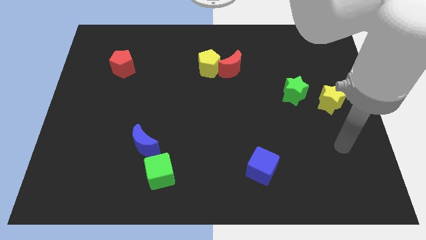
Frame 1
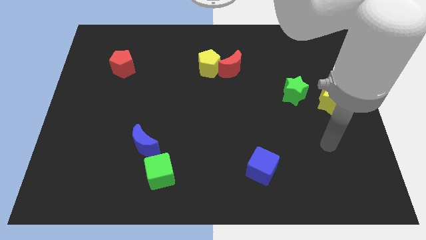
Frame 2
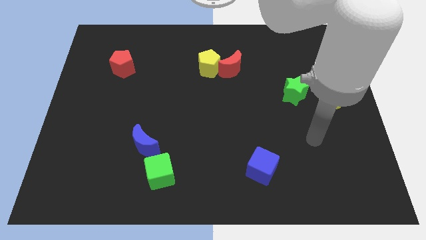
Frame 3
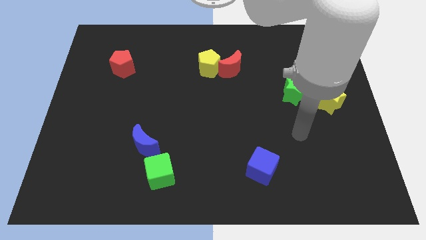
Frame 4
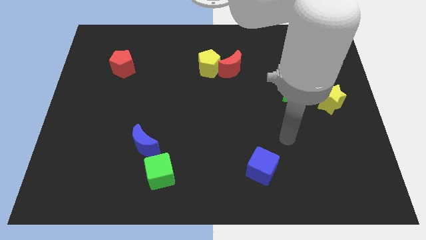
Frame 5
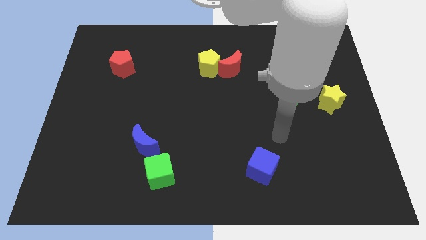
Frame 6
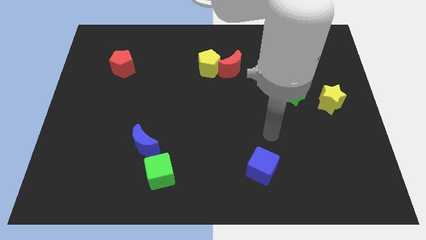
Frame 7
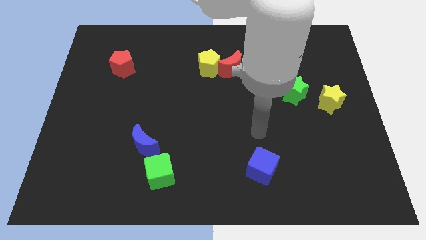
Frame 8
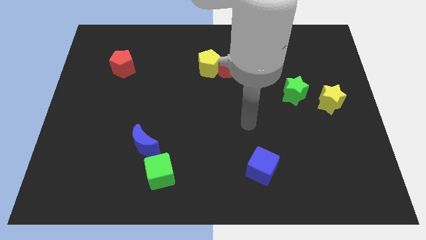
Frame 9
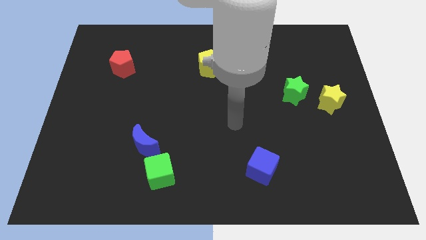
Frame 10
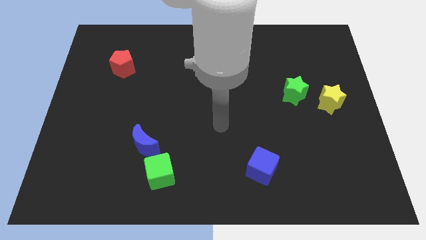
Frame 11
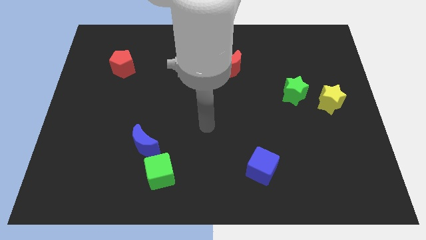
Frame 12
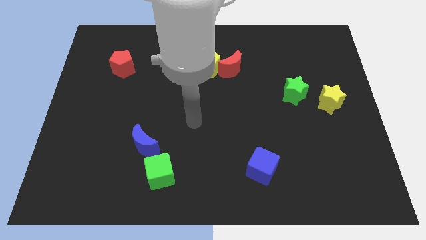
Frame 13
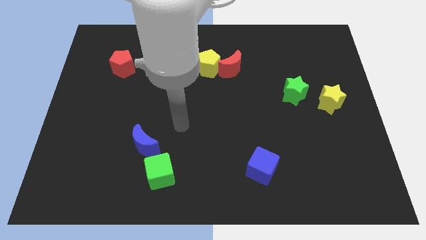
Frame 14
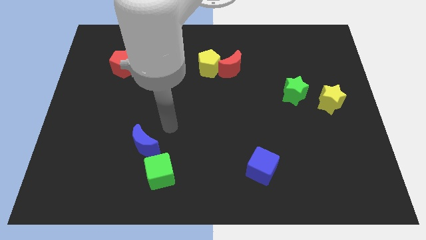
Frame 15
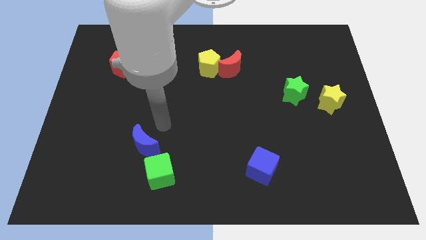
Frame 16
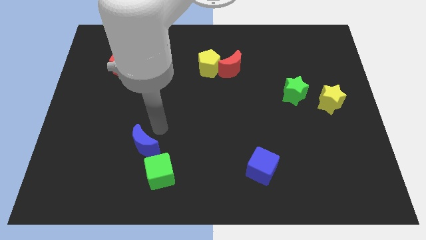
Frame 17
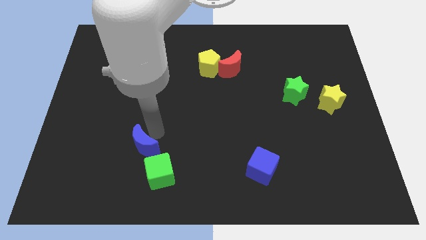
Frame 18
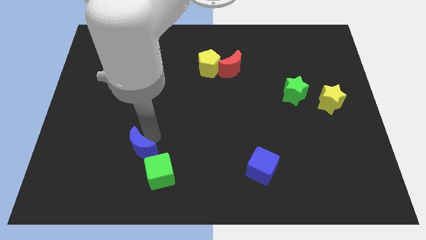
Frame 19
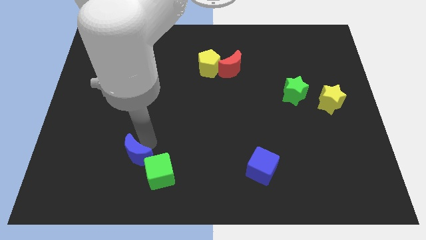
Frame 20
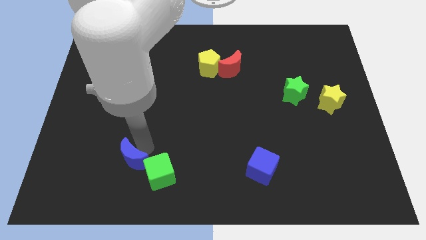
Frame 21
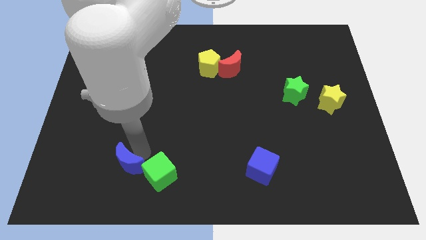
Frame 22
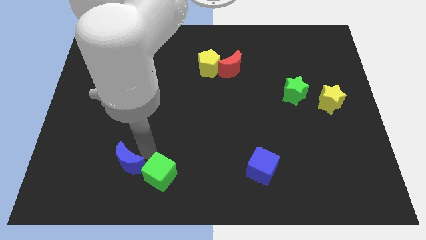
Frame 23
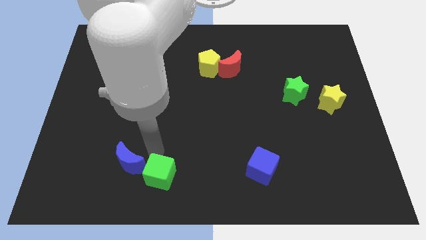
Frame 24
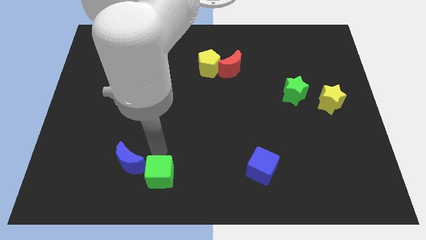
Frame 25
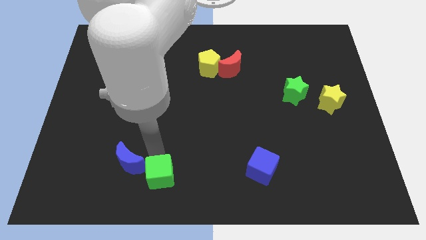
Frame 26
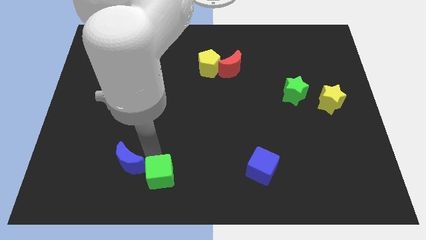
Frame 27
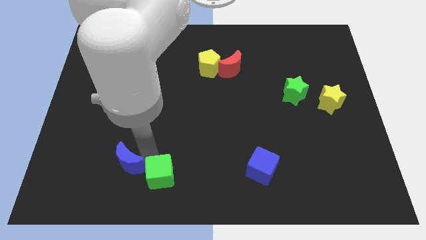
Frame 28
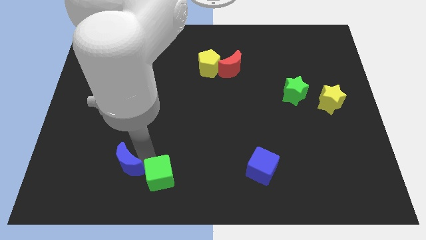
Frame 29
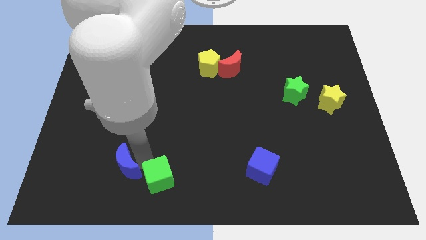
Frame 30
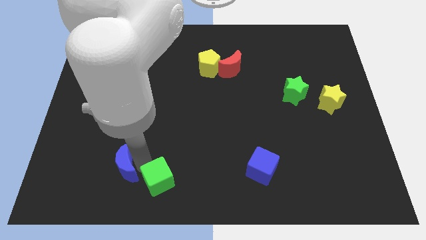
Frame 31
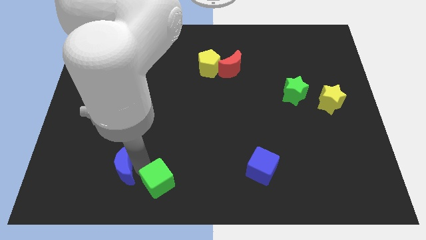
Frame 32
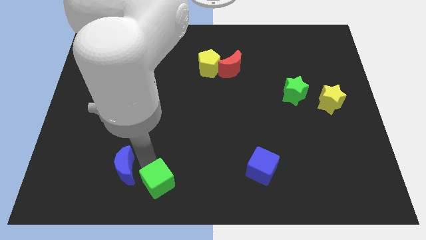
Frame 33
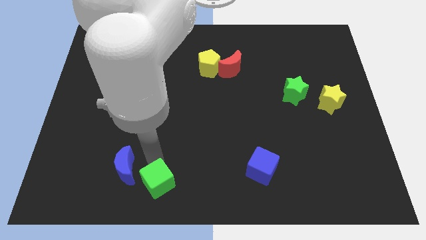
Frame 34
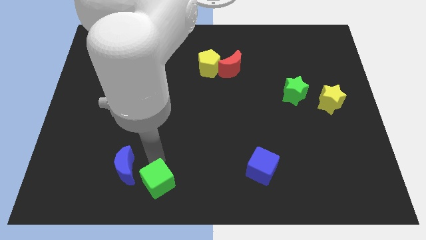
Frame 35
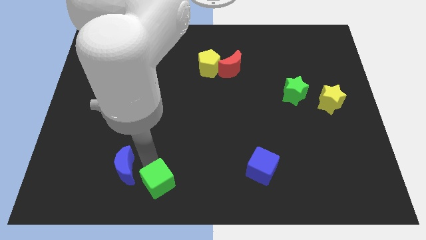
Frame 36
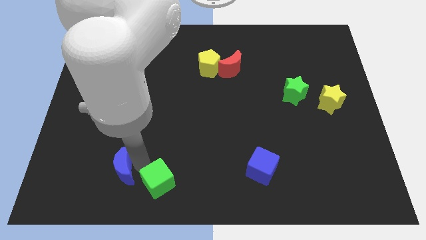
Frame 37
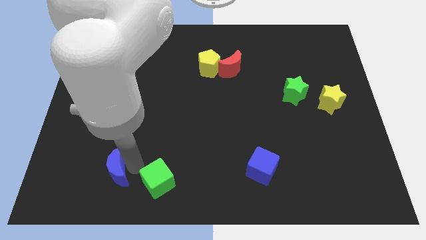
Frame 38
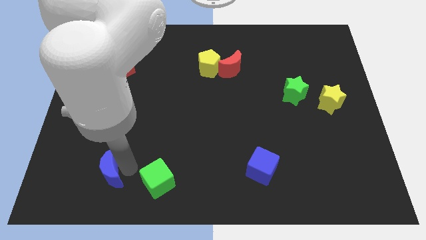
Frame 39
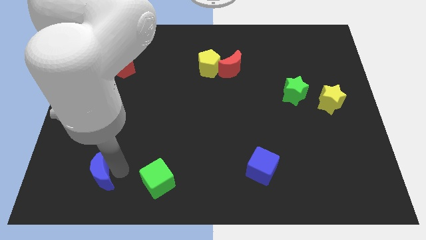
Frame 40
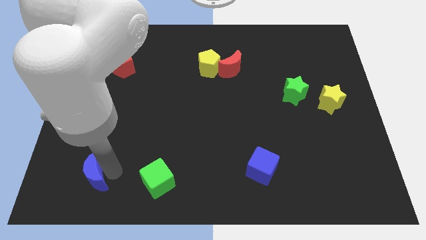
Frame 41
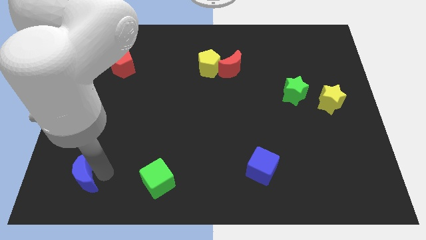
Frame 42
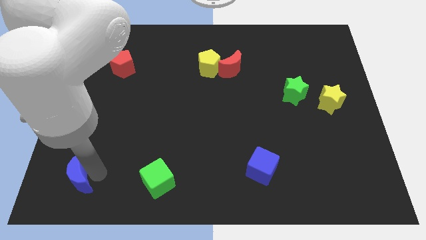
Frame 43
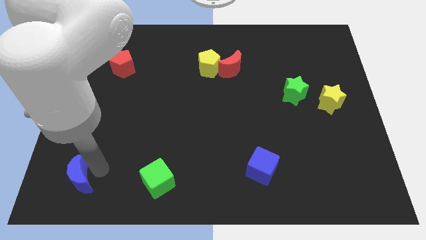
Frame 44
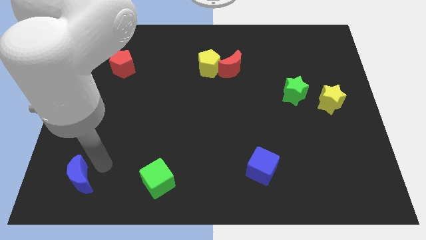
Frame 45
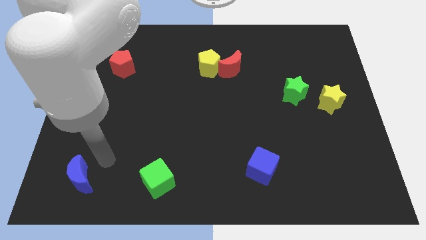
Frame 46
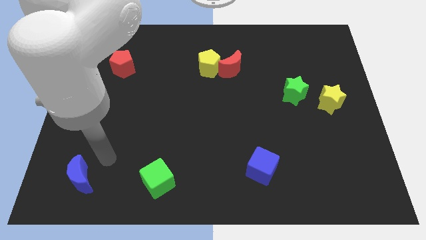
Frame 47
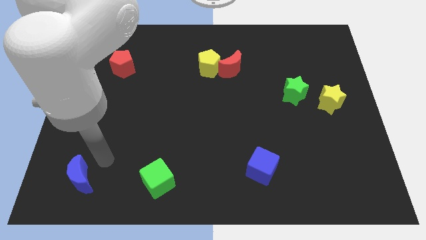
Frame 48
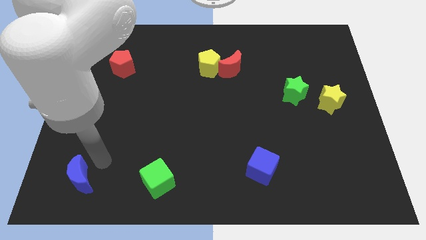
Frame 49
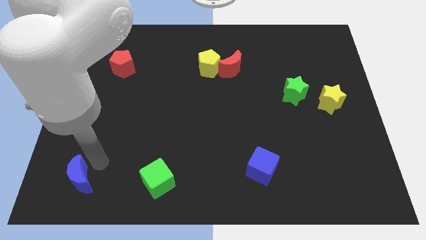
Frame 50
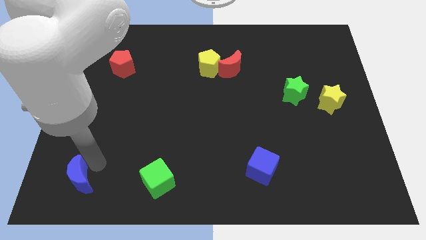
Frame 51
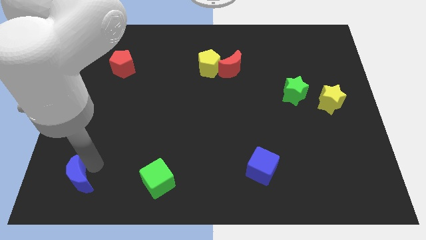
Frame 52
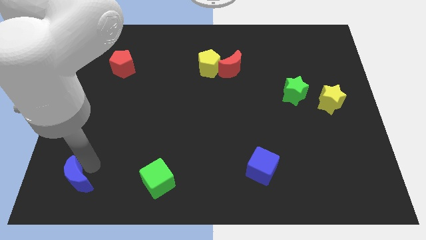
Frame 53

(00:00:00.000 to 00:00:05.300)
put the blue moon to the bottom left

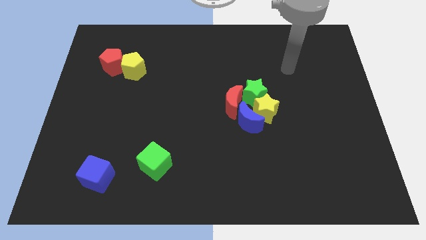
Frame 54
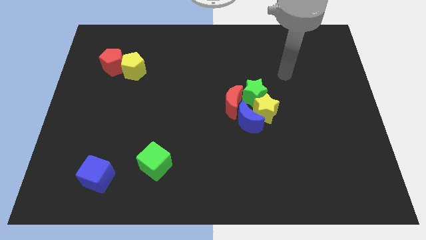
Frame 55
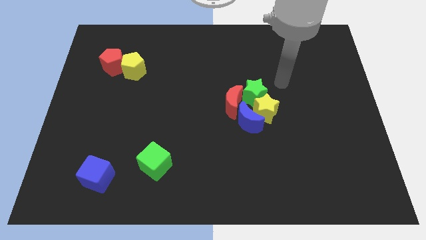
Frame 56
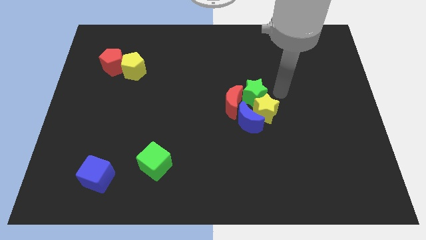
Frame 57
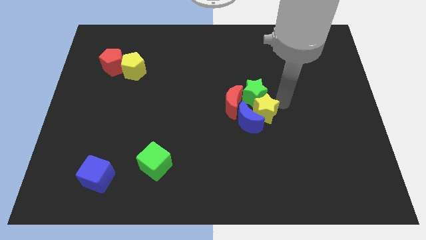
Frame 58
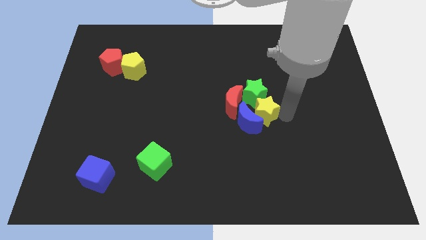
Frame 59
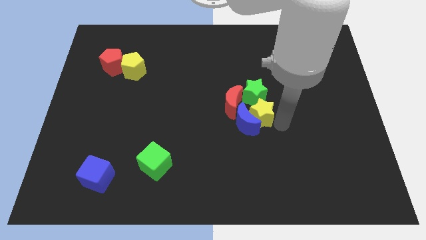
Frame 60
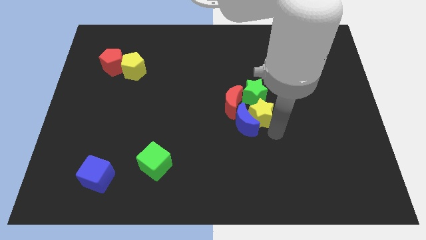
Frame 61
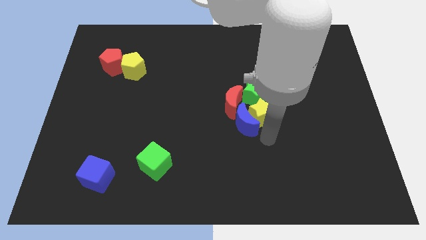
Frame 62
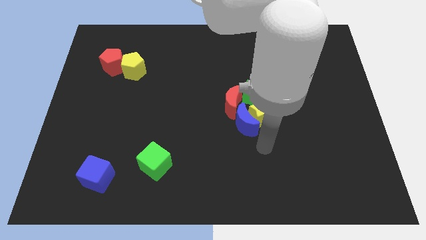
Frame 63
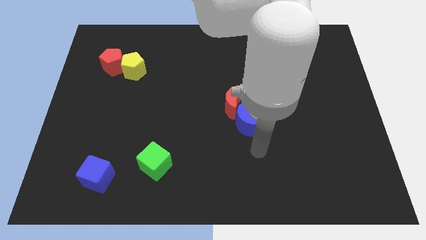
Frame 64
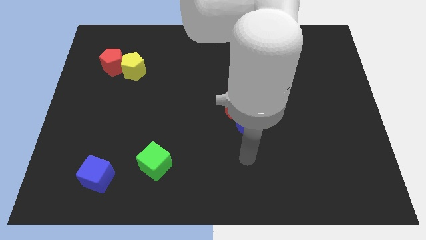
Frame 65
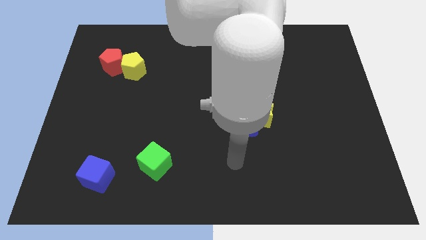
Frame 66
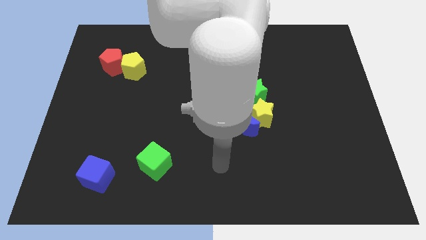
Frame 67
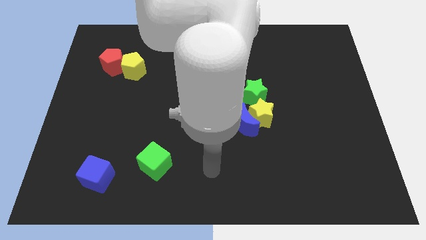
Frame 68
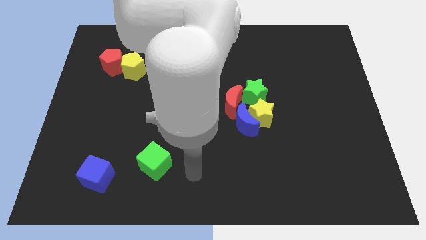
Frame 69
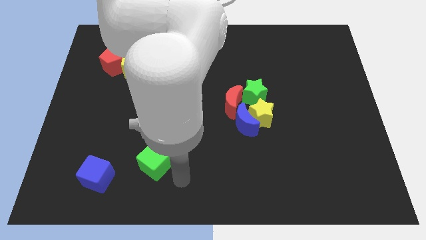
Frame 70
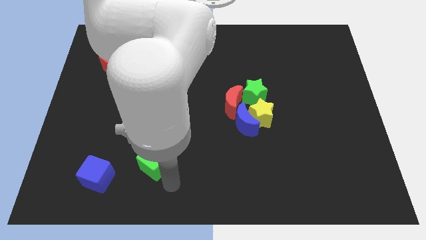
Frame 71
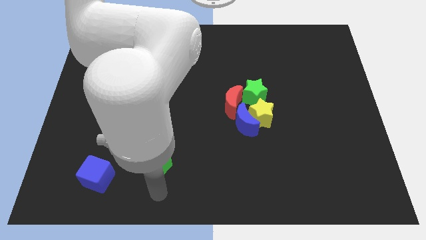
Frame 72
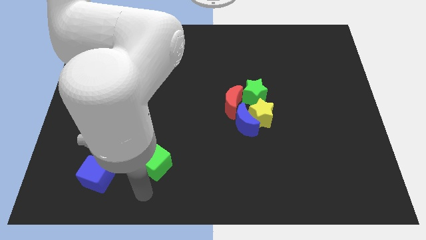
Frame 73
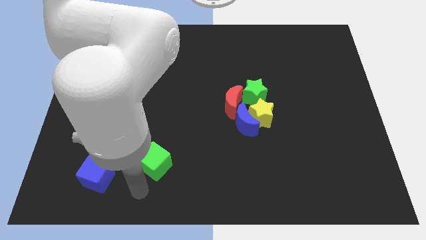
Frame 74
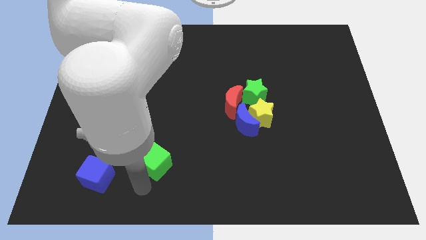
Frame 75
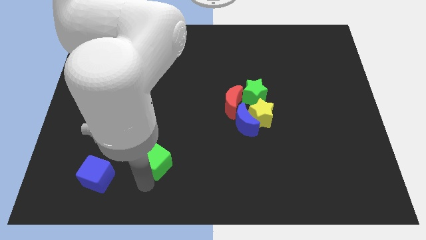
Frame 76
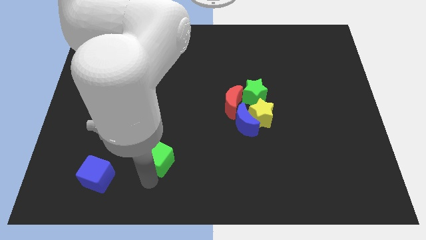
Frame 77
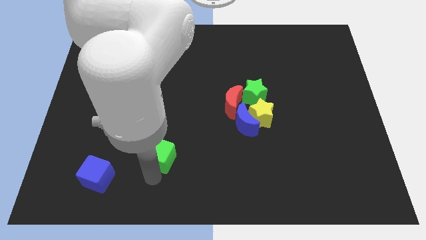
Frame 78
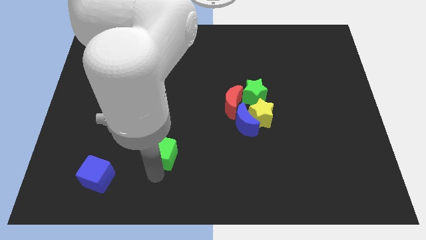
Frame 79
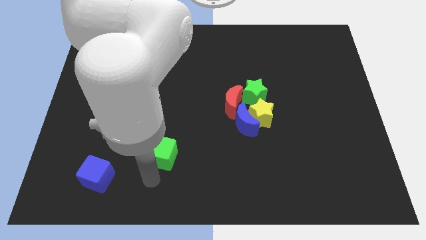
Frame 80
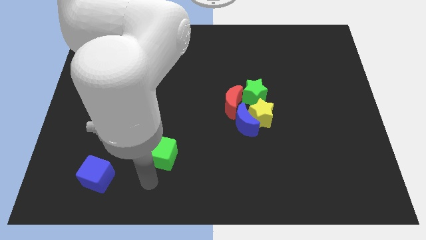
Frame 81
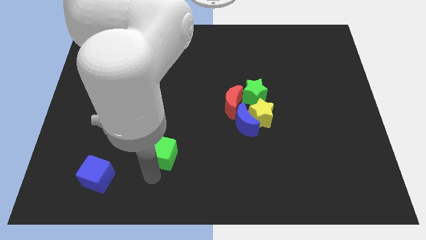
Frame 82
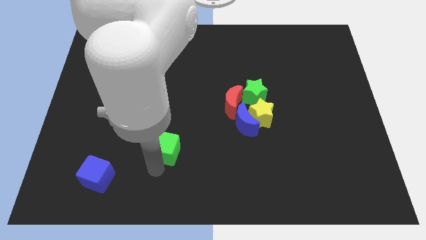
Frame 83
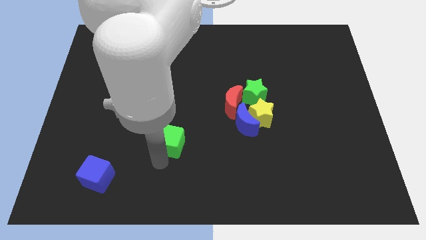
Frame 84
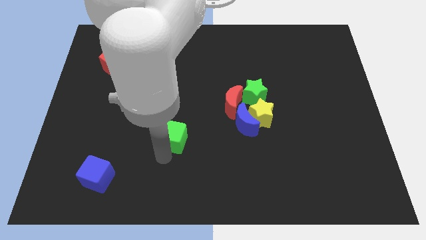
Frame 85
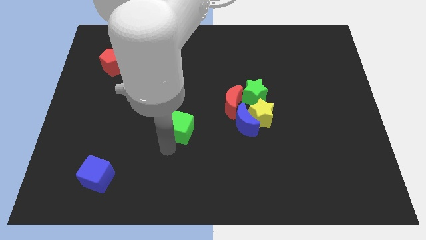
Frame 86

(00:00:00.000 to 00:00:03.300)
move the green cube to the middle
